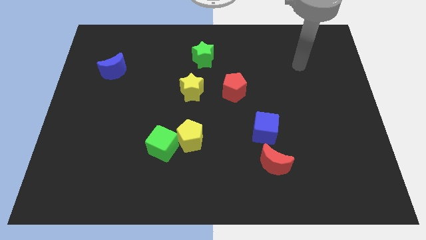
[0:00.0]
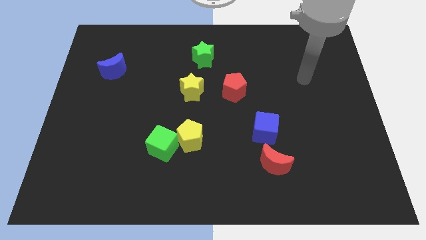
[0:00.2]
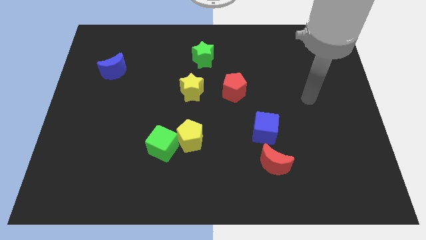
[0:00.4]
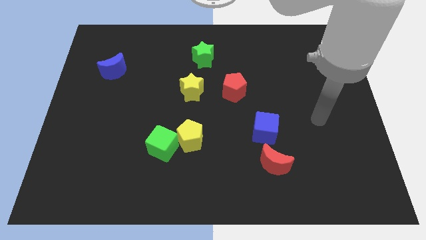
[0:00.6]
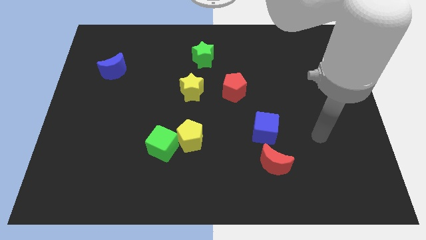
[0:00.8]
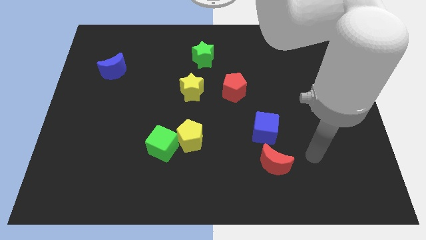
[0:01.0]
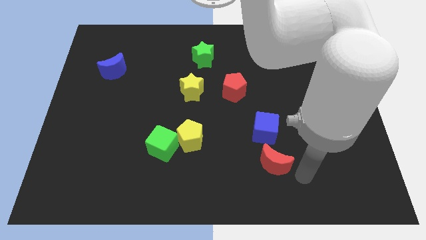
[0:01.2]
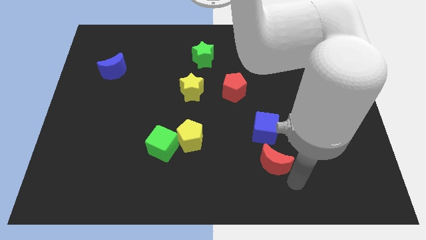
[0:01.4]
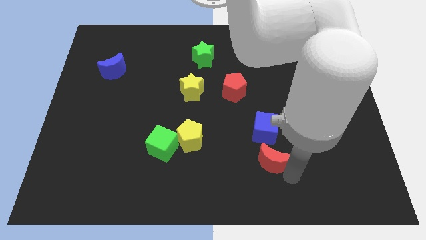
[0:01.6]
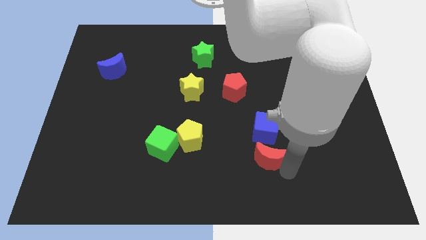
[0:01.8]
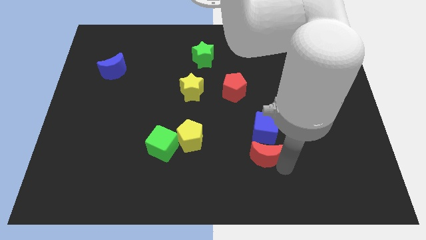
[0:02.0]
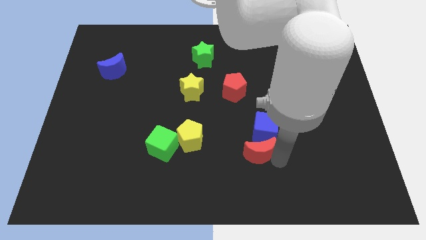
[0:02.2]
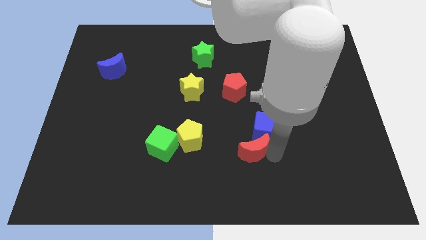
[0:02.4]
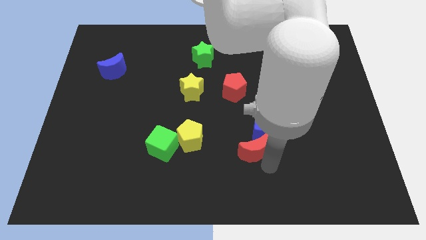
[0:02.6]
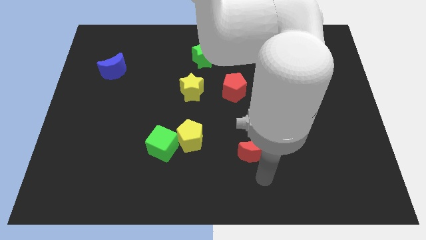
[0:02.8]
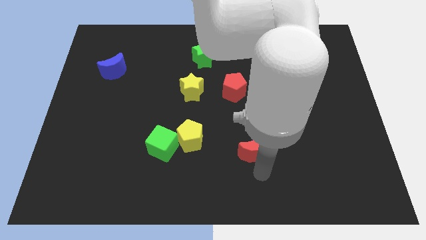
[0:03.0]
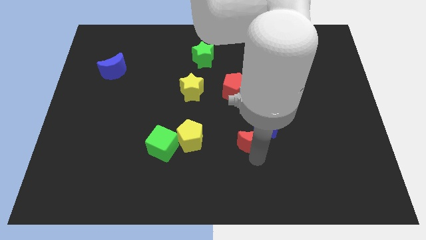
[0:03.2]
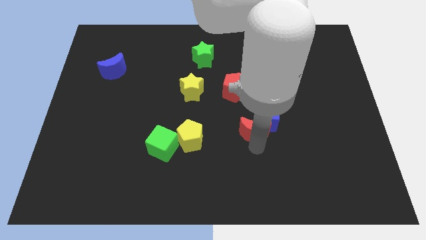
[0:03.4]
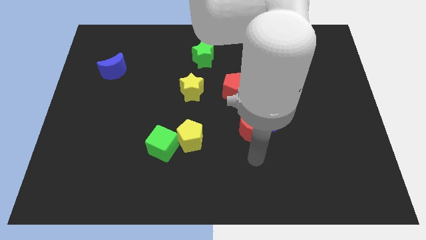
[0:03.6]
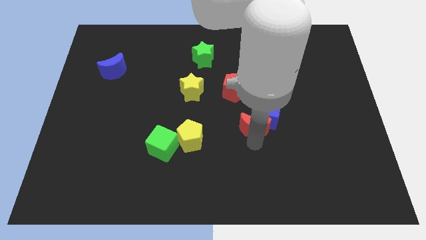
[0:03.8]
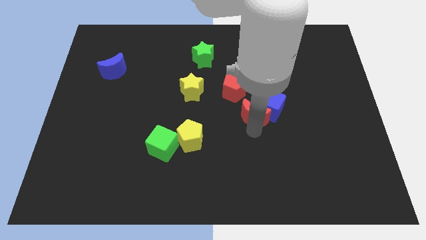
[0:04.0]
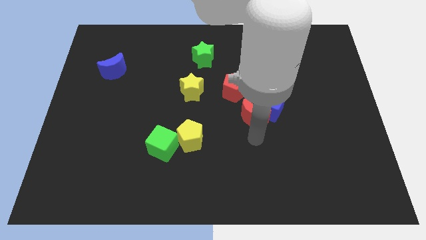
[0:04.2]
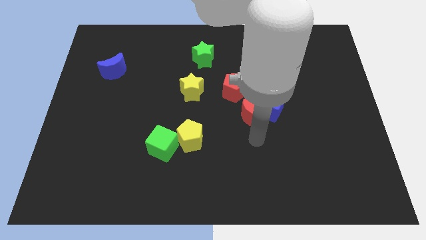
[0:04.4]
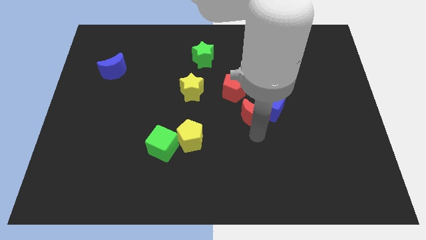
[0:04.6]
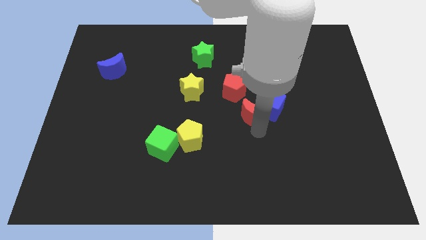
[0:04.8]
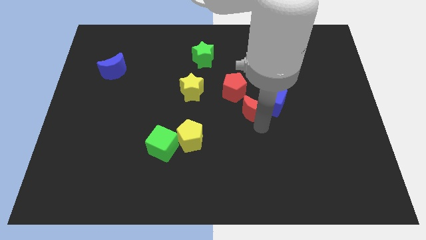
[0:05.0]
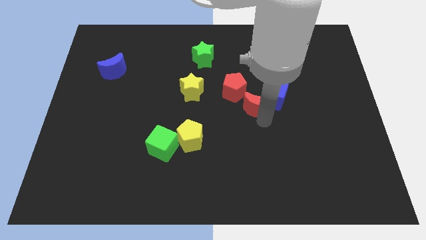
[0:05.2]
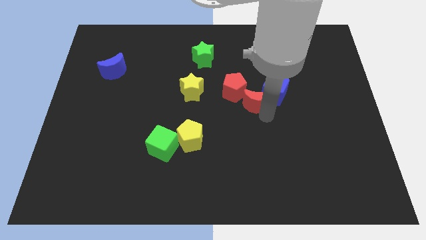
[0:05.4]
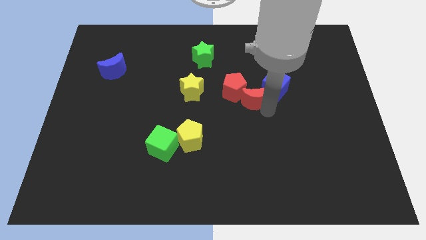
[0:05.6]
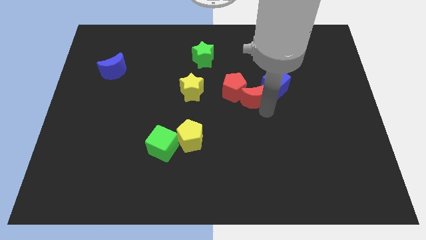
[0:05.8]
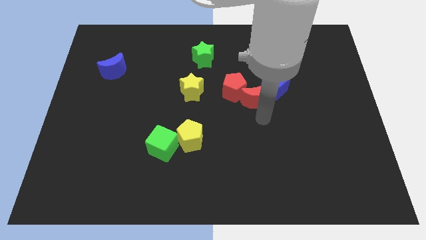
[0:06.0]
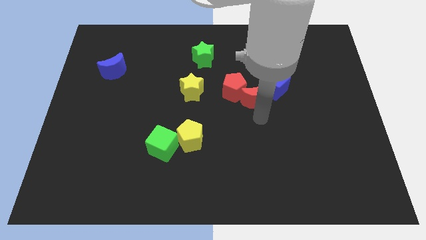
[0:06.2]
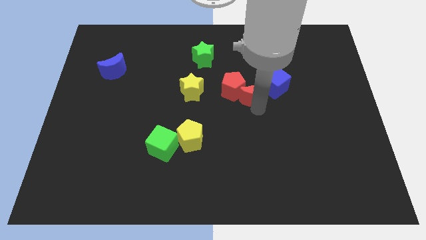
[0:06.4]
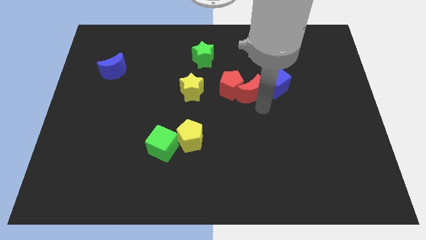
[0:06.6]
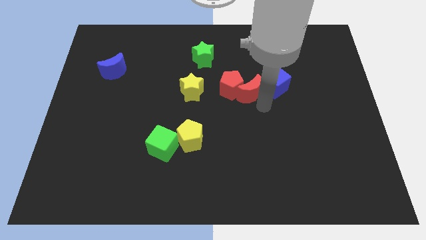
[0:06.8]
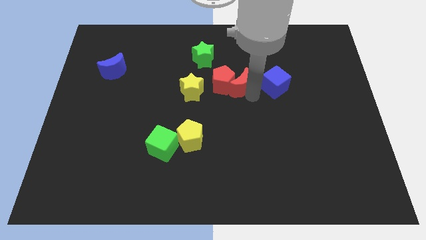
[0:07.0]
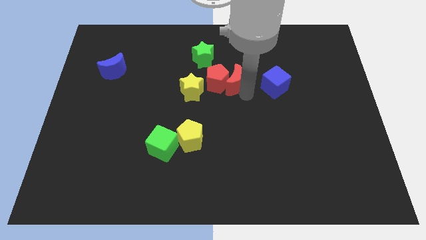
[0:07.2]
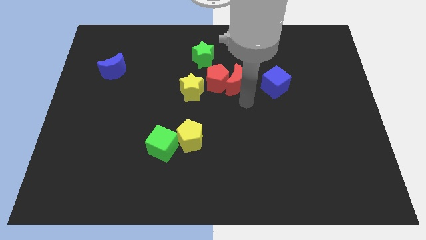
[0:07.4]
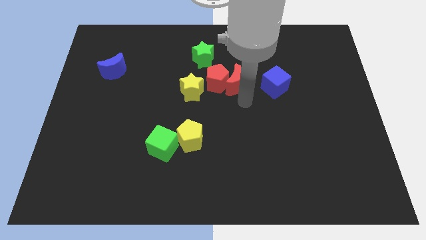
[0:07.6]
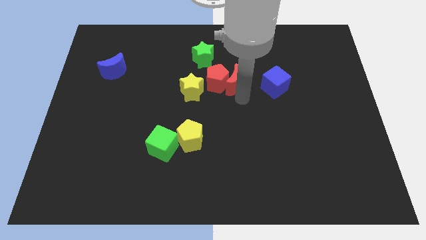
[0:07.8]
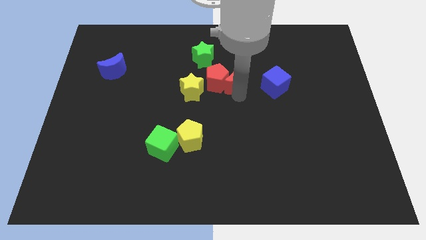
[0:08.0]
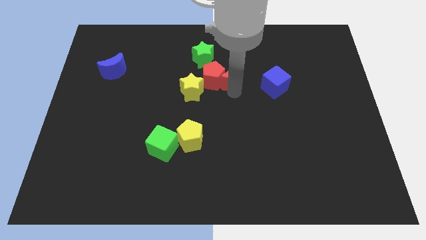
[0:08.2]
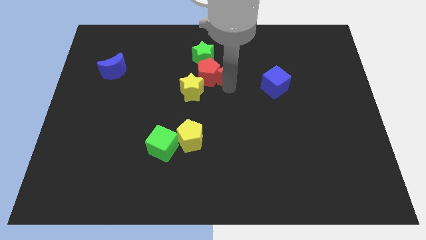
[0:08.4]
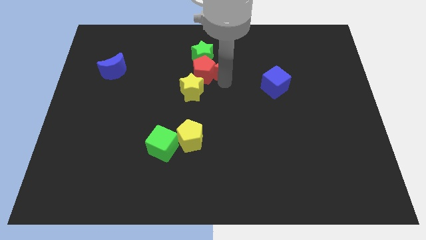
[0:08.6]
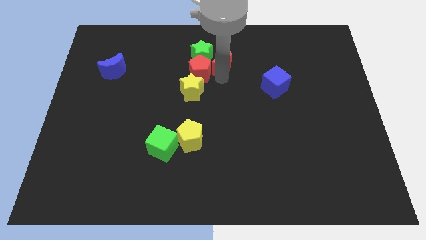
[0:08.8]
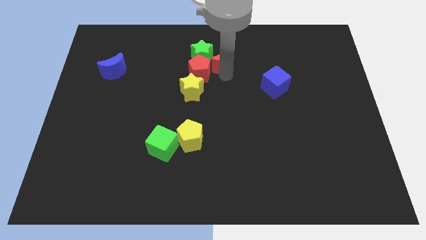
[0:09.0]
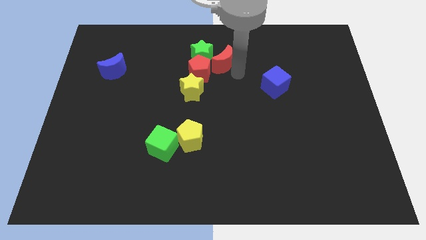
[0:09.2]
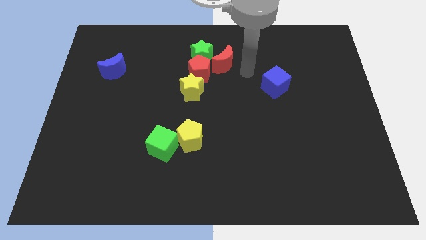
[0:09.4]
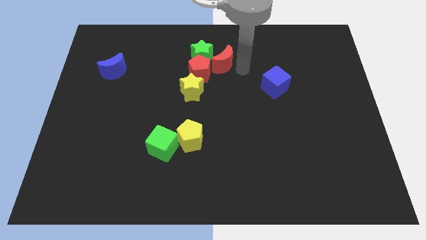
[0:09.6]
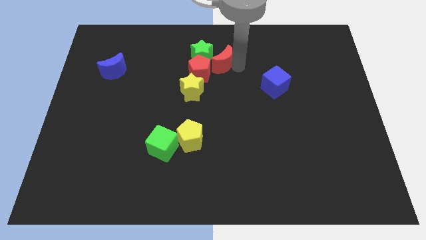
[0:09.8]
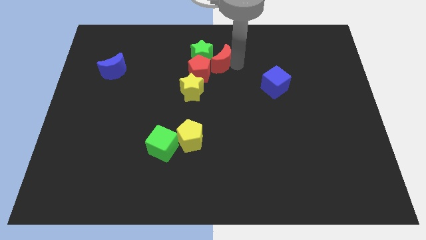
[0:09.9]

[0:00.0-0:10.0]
slide the red moon next to the green star

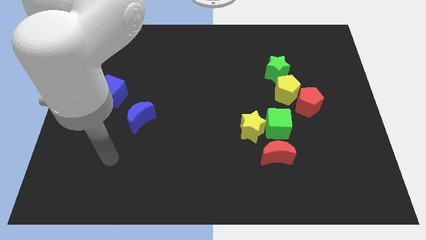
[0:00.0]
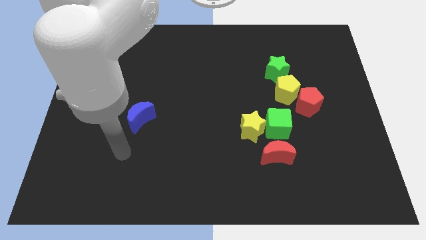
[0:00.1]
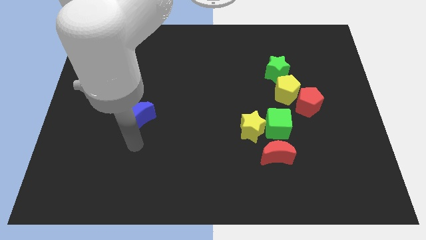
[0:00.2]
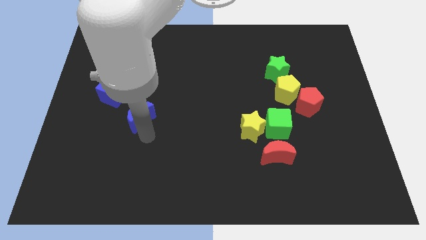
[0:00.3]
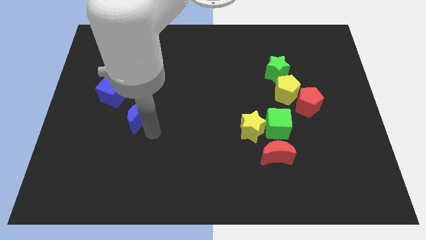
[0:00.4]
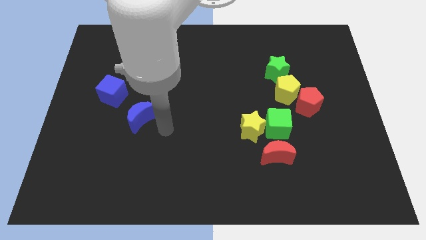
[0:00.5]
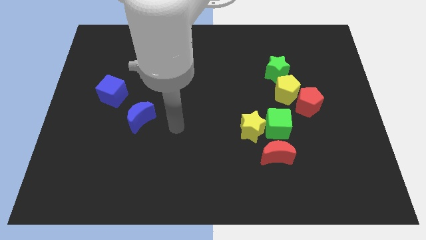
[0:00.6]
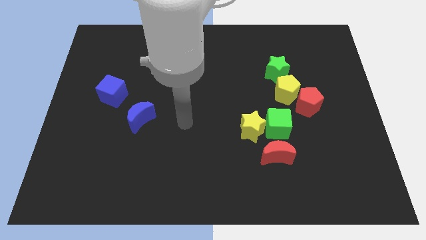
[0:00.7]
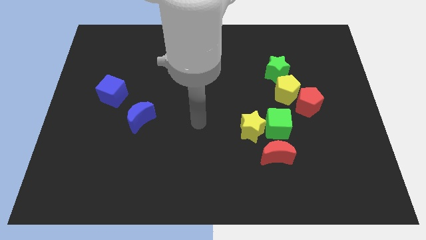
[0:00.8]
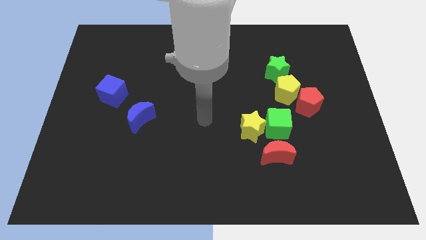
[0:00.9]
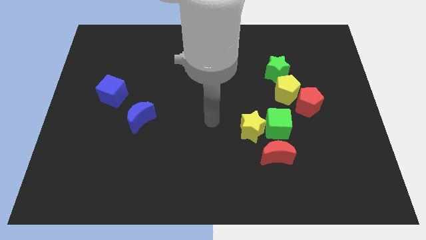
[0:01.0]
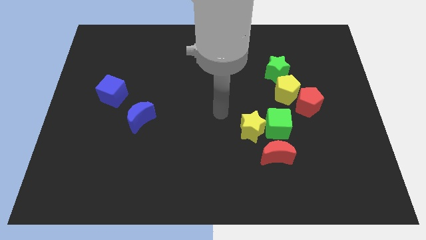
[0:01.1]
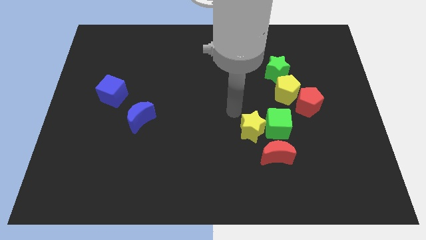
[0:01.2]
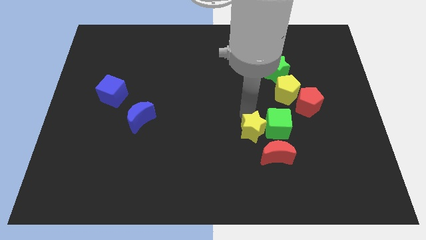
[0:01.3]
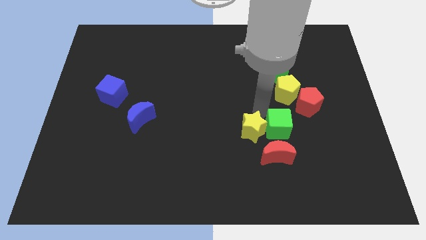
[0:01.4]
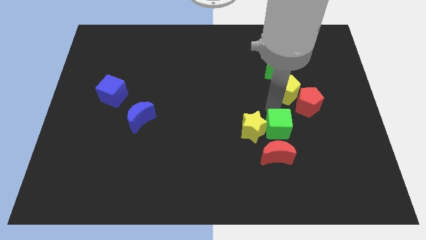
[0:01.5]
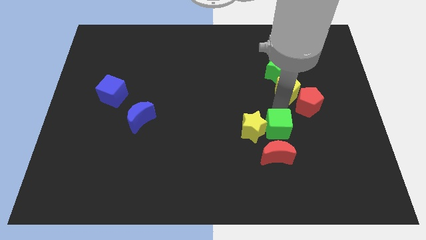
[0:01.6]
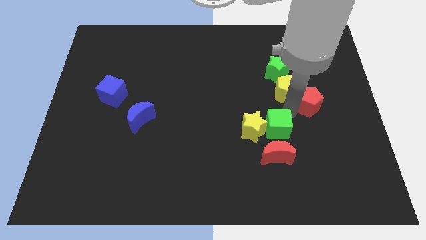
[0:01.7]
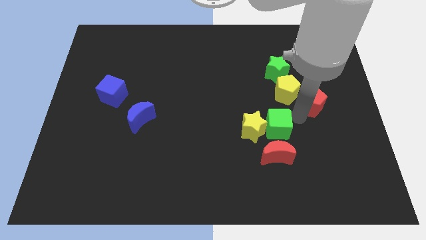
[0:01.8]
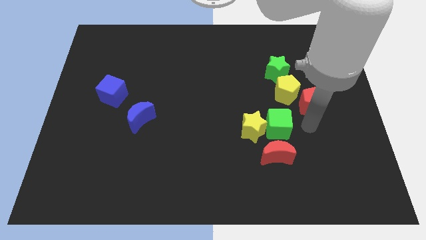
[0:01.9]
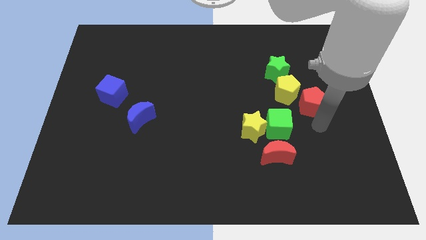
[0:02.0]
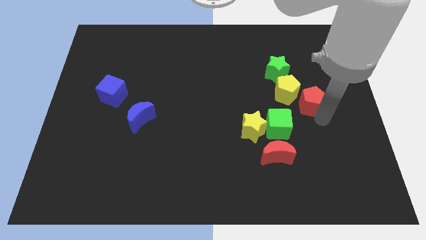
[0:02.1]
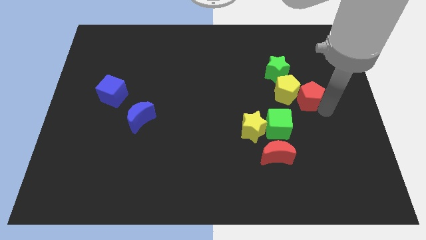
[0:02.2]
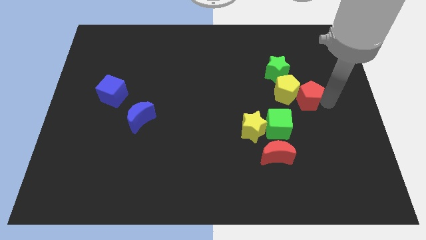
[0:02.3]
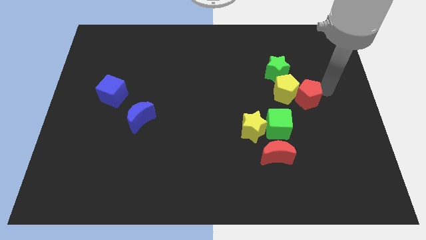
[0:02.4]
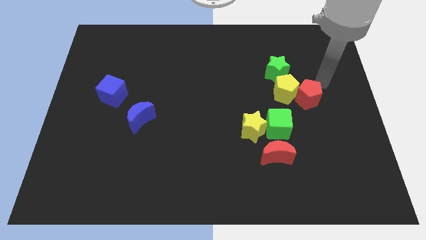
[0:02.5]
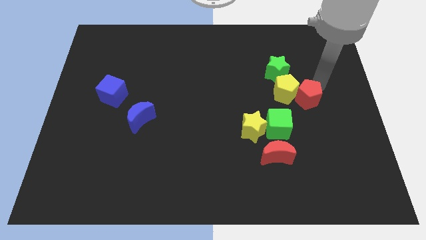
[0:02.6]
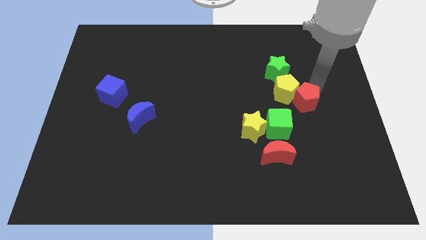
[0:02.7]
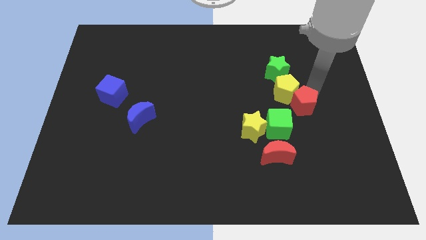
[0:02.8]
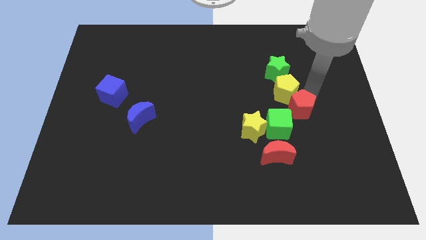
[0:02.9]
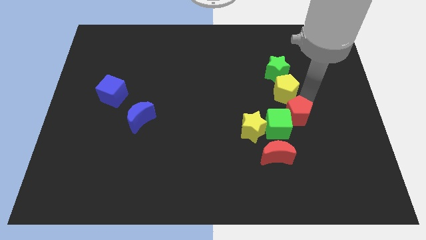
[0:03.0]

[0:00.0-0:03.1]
push the red pentagon to the green cube
